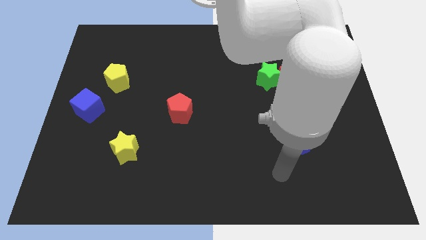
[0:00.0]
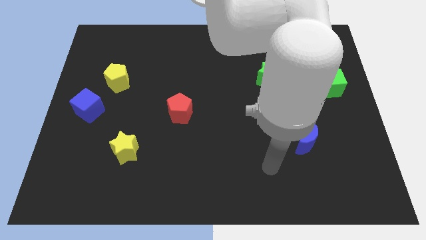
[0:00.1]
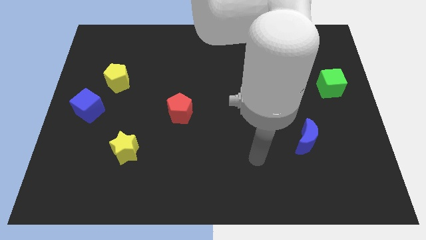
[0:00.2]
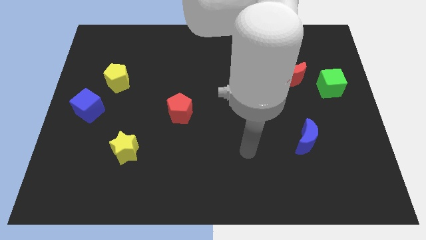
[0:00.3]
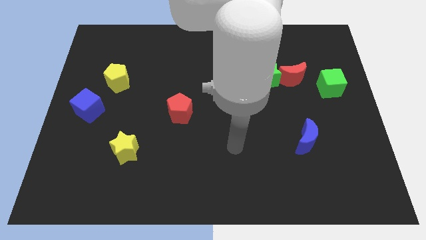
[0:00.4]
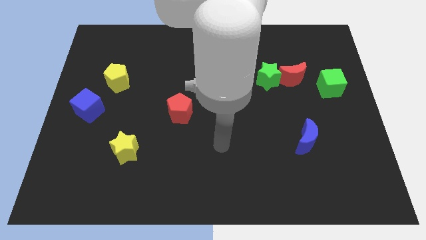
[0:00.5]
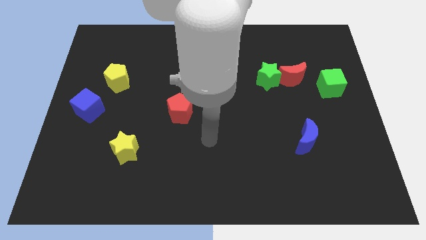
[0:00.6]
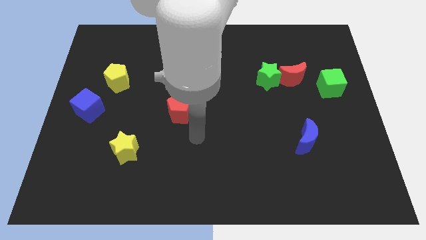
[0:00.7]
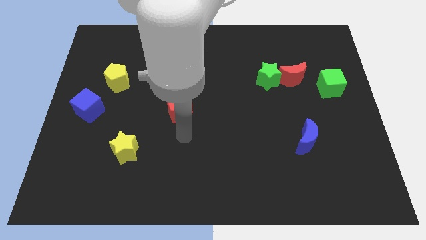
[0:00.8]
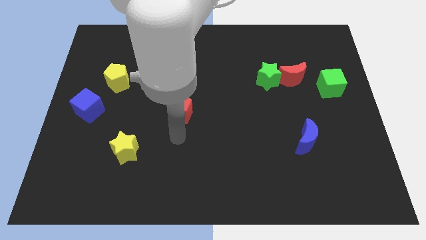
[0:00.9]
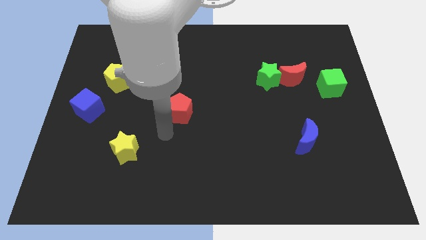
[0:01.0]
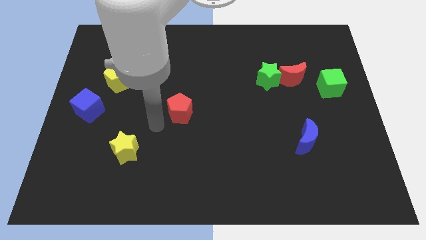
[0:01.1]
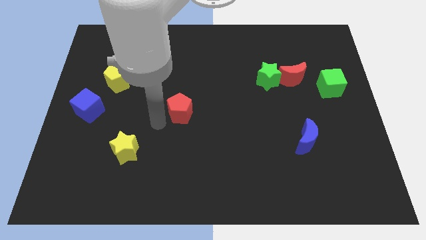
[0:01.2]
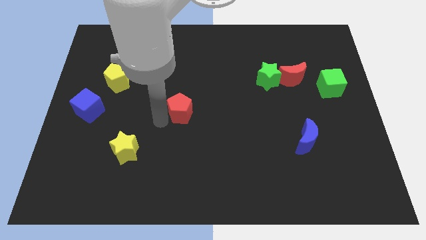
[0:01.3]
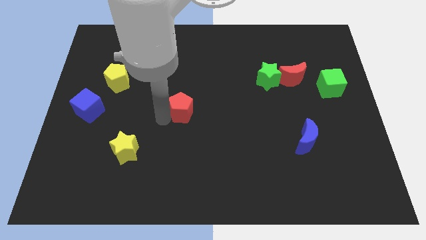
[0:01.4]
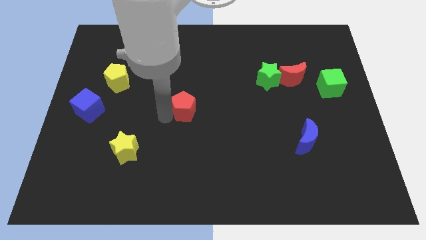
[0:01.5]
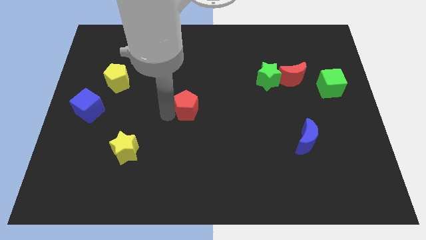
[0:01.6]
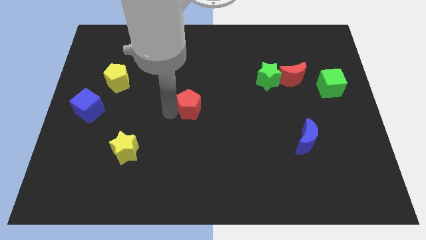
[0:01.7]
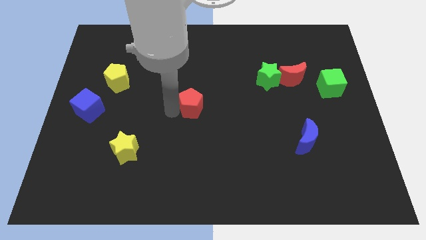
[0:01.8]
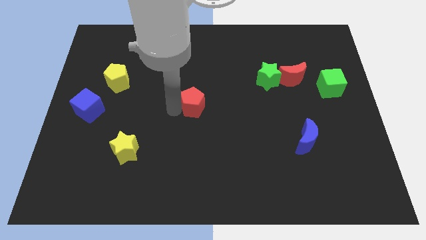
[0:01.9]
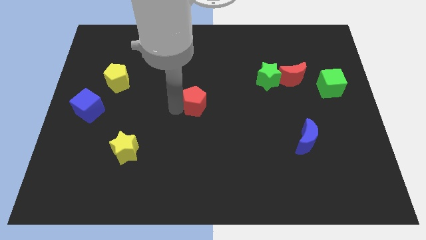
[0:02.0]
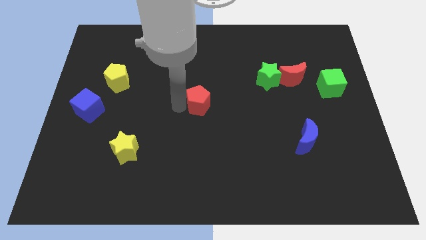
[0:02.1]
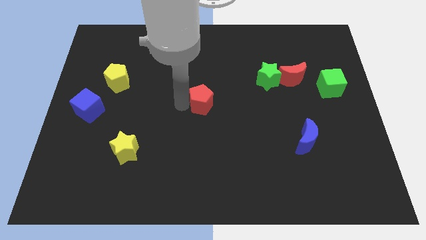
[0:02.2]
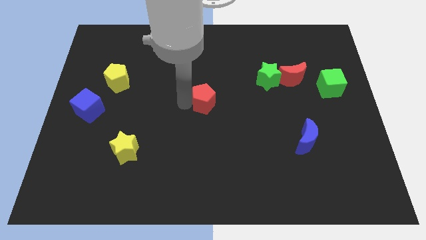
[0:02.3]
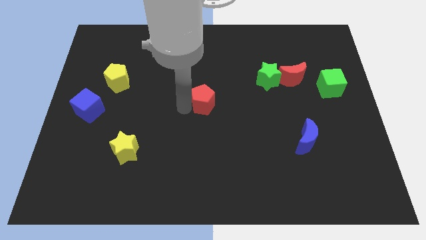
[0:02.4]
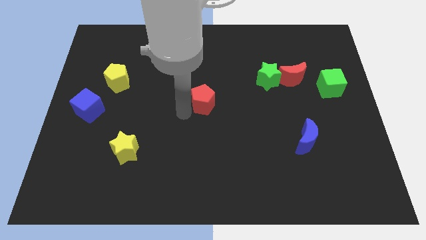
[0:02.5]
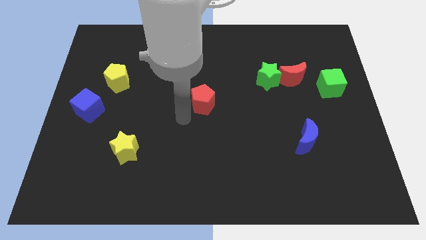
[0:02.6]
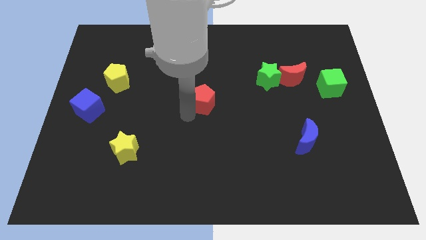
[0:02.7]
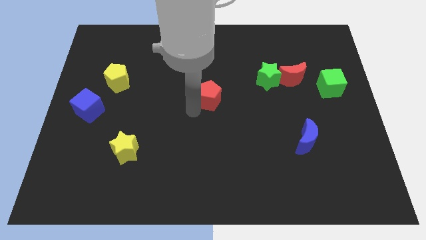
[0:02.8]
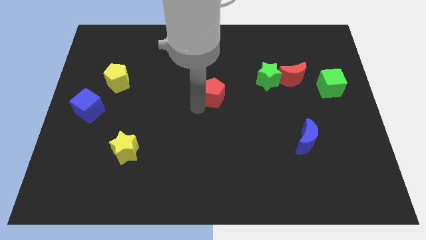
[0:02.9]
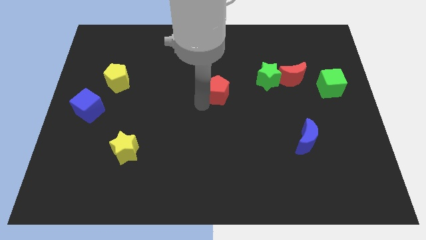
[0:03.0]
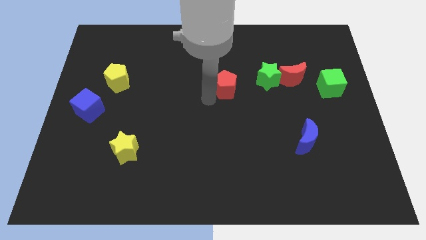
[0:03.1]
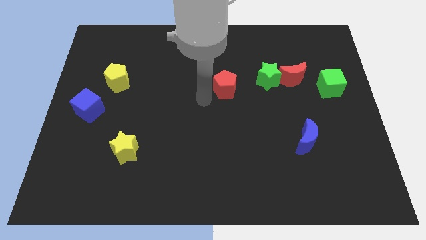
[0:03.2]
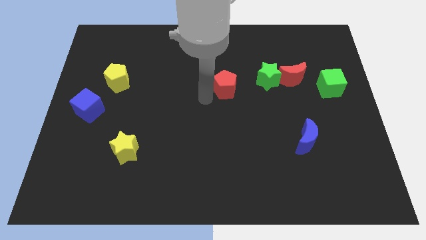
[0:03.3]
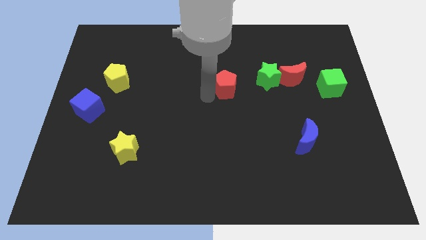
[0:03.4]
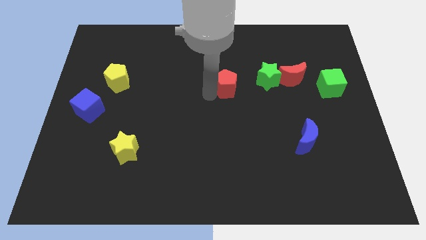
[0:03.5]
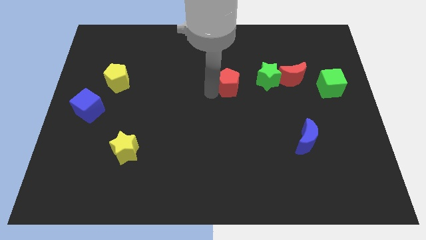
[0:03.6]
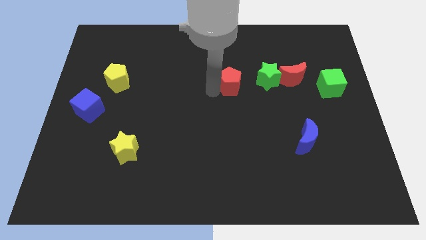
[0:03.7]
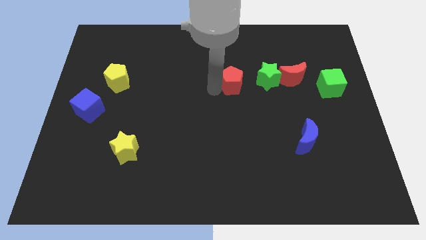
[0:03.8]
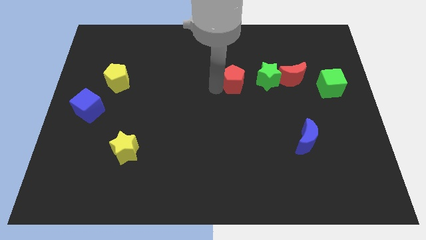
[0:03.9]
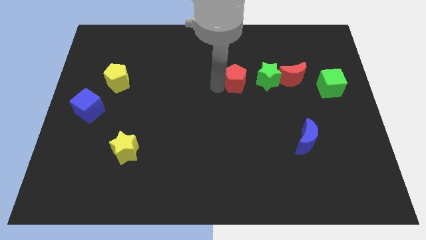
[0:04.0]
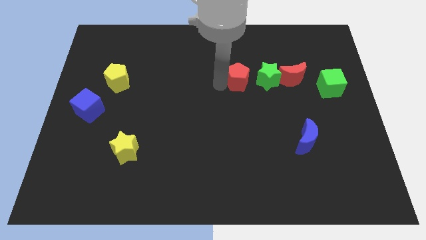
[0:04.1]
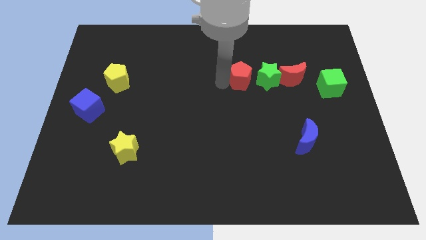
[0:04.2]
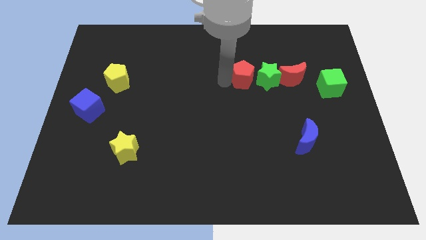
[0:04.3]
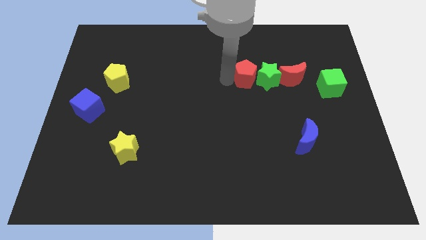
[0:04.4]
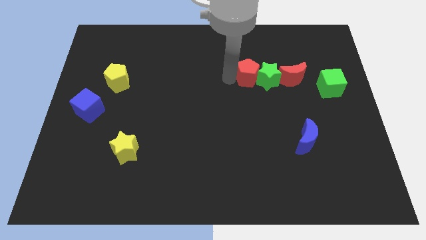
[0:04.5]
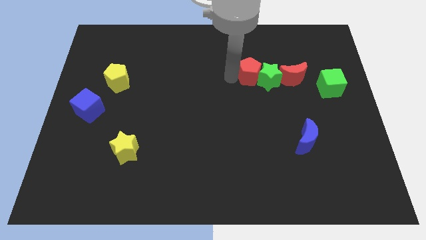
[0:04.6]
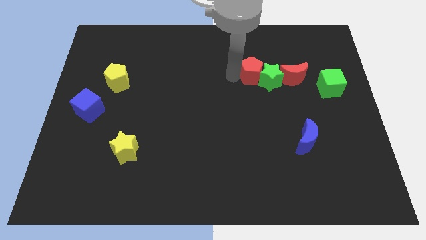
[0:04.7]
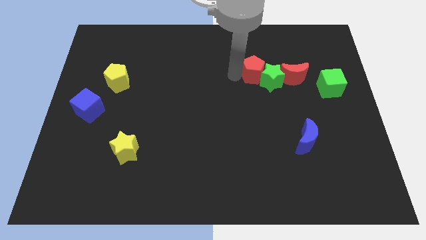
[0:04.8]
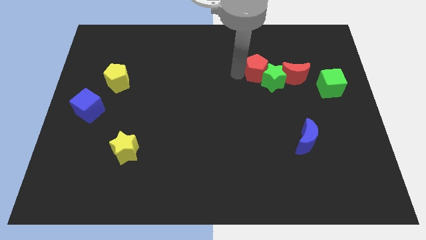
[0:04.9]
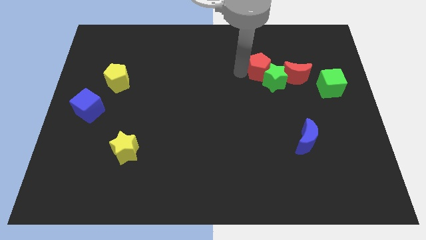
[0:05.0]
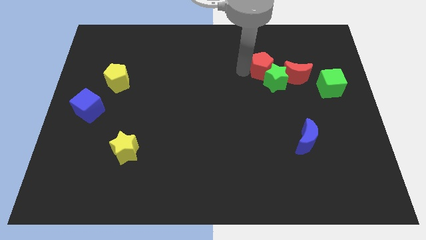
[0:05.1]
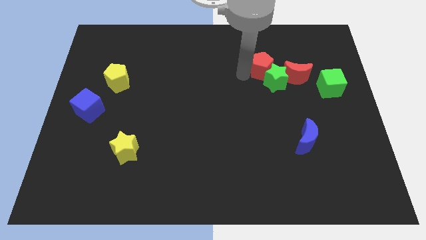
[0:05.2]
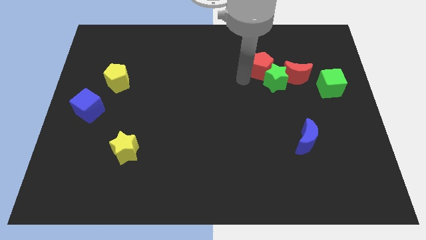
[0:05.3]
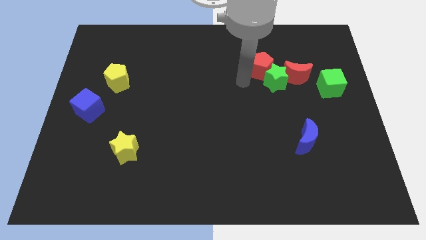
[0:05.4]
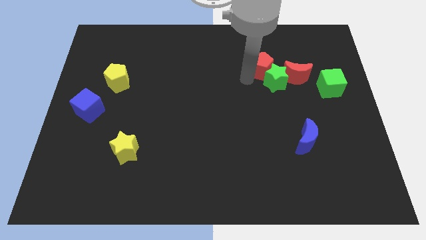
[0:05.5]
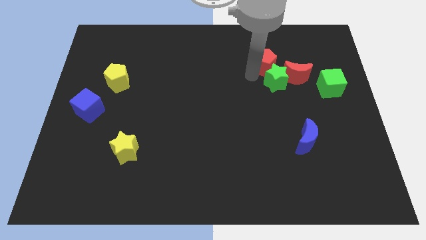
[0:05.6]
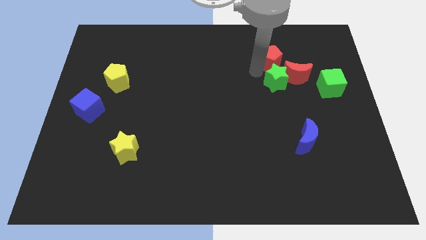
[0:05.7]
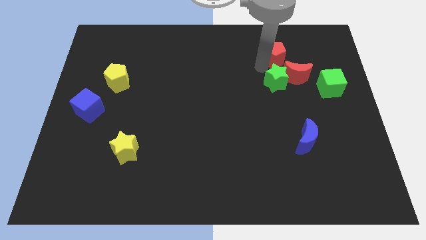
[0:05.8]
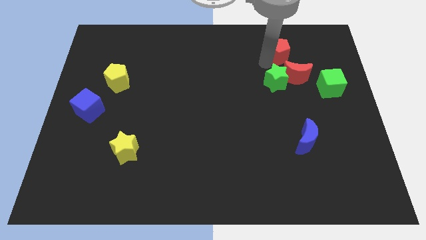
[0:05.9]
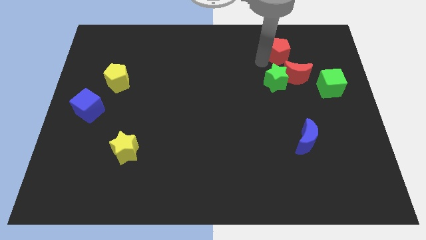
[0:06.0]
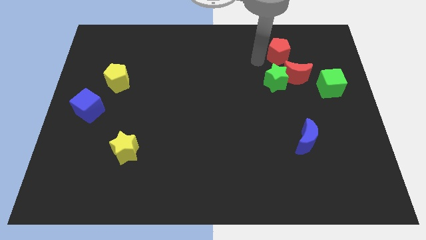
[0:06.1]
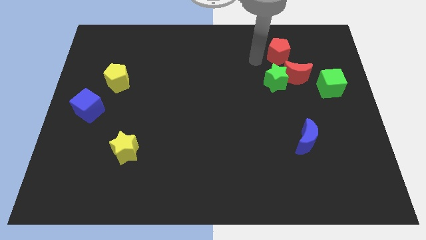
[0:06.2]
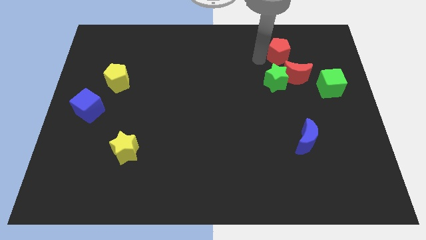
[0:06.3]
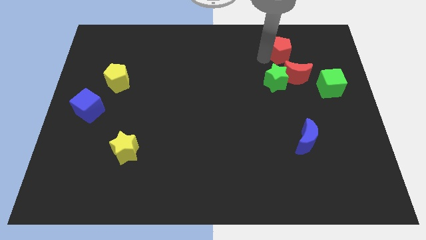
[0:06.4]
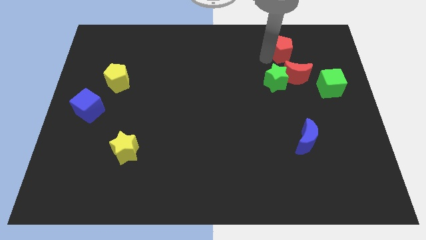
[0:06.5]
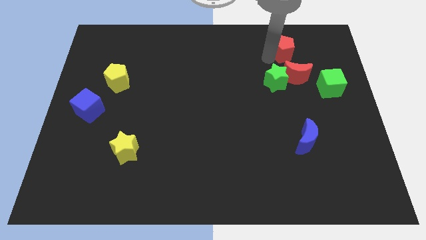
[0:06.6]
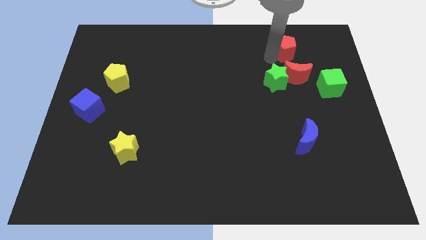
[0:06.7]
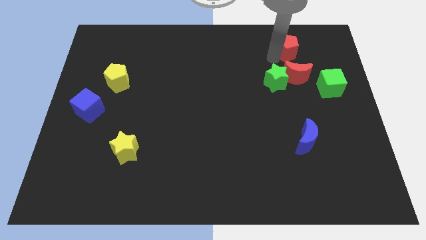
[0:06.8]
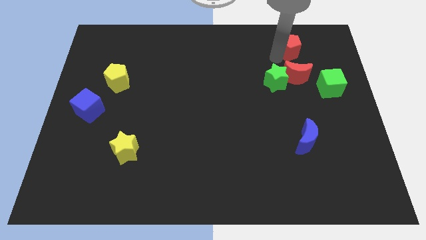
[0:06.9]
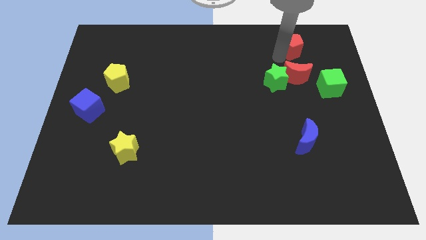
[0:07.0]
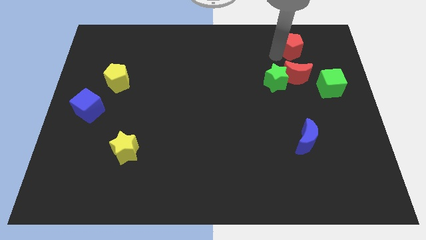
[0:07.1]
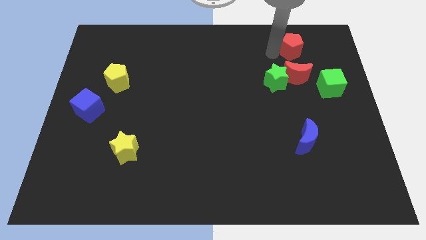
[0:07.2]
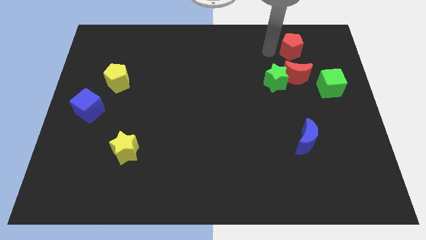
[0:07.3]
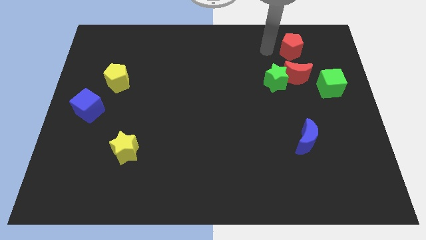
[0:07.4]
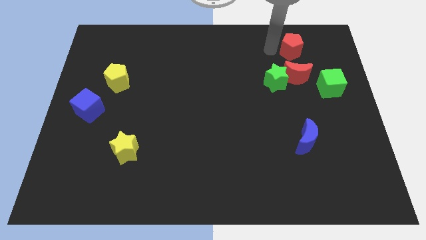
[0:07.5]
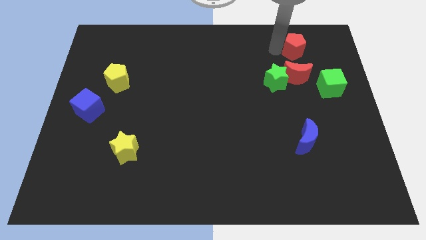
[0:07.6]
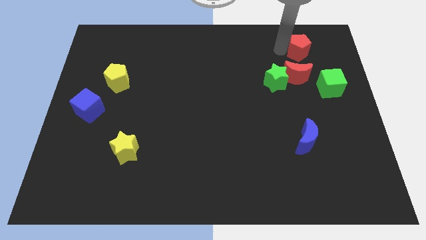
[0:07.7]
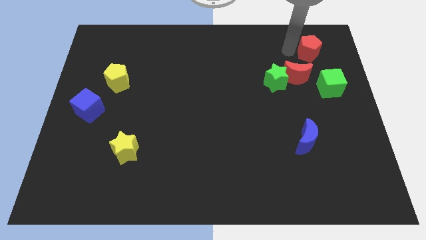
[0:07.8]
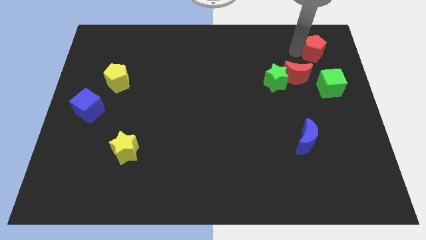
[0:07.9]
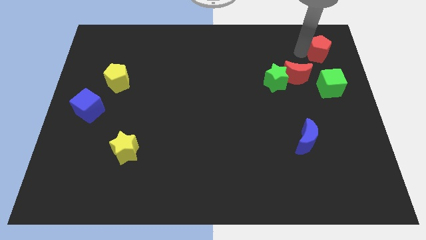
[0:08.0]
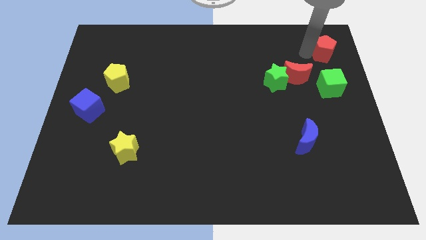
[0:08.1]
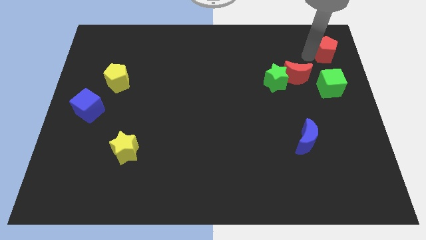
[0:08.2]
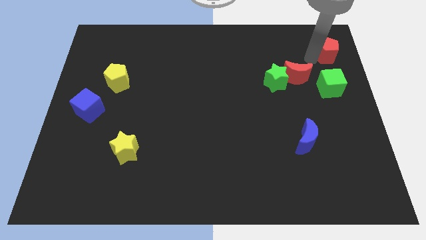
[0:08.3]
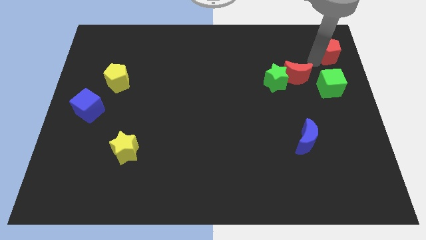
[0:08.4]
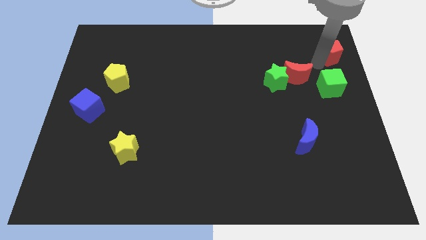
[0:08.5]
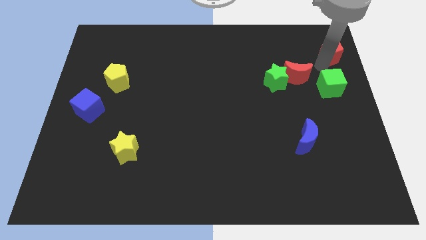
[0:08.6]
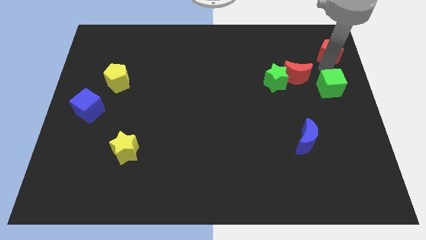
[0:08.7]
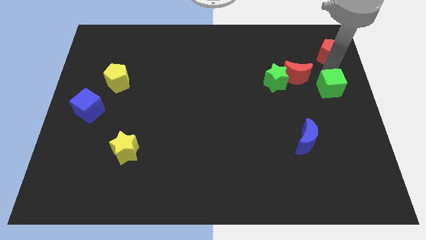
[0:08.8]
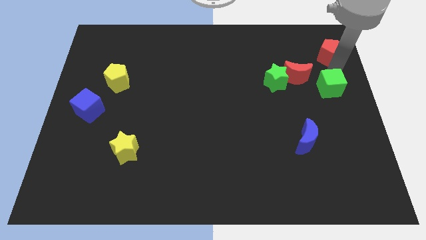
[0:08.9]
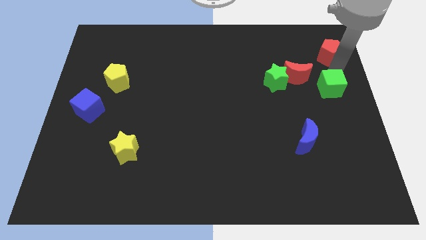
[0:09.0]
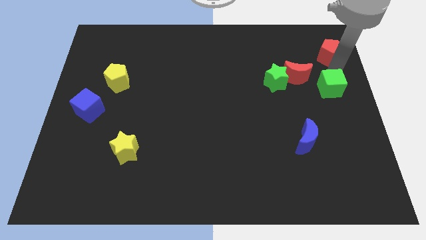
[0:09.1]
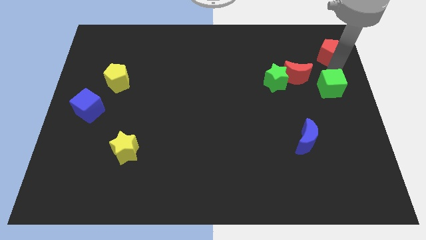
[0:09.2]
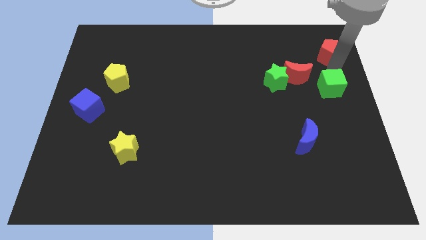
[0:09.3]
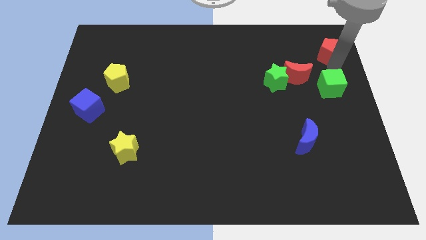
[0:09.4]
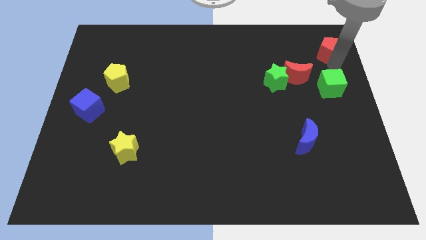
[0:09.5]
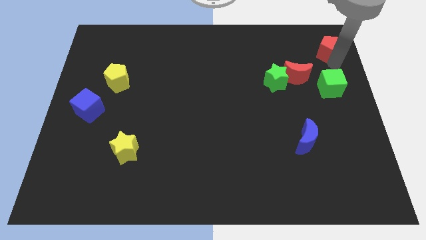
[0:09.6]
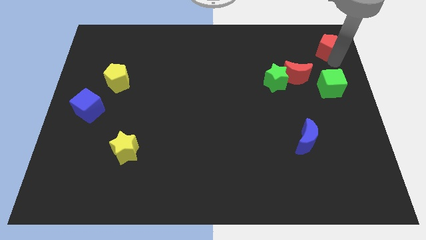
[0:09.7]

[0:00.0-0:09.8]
move the red pentagon to the upper right corner
